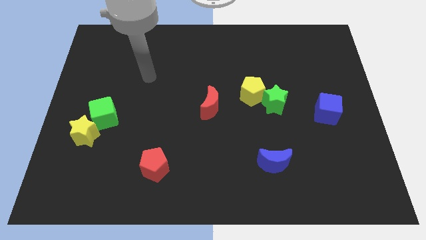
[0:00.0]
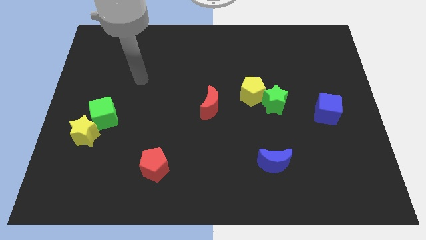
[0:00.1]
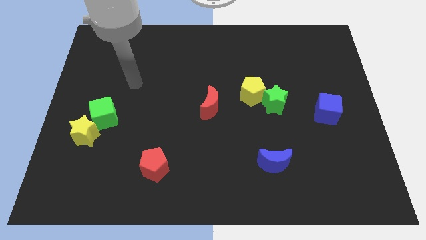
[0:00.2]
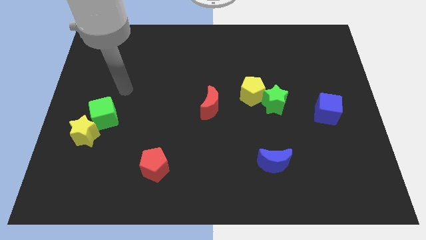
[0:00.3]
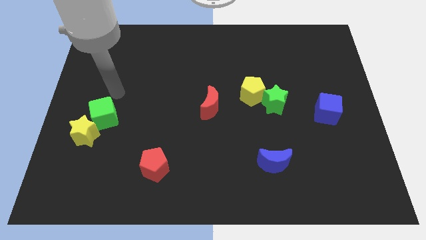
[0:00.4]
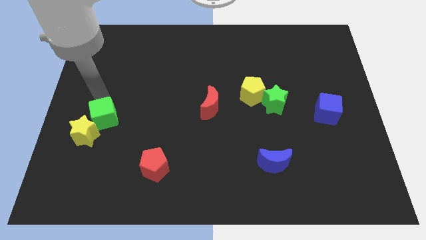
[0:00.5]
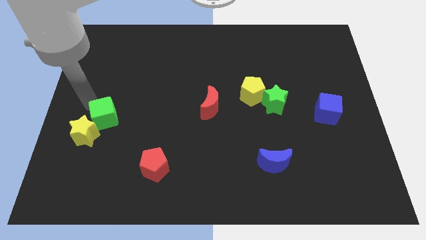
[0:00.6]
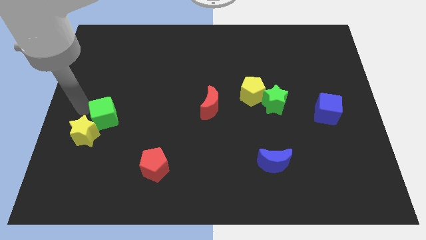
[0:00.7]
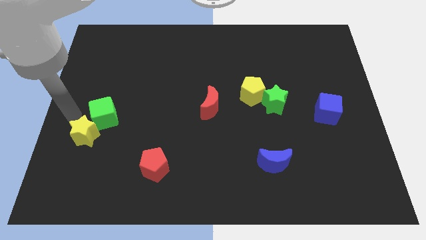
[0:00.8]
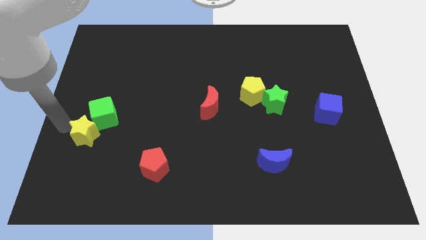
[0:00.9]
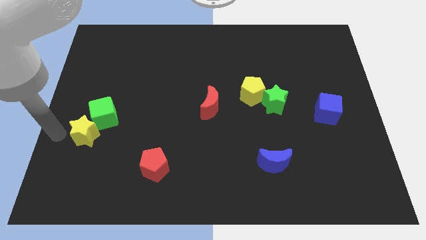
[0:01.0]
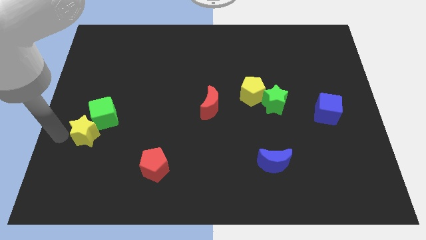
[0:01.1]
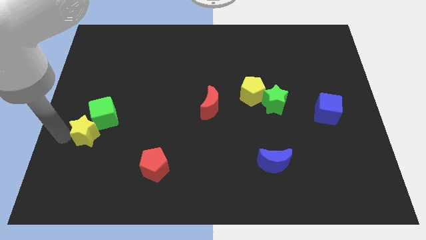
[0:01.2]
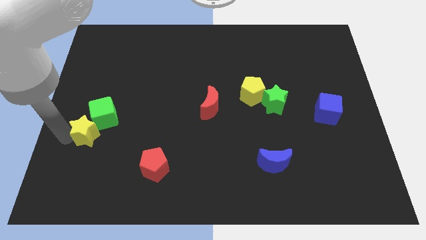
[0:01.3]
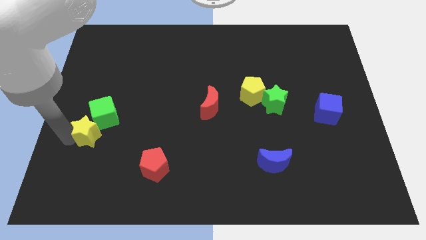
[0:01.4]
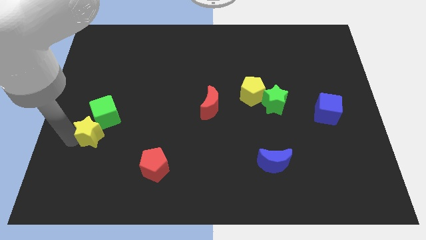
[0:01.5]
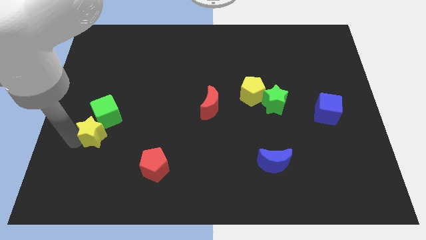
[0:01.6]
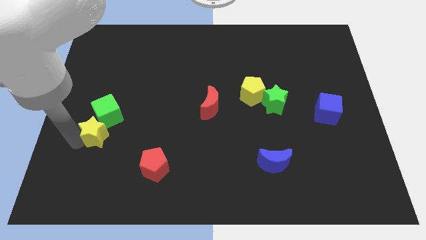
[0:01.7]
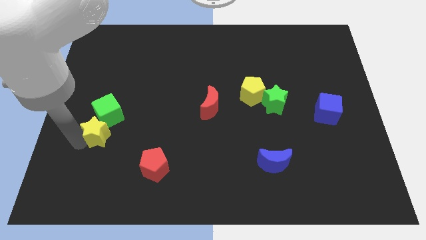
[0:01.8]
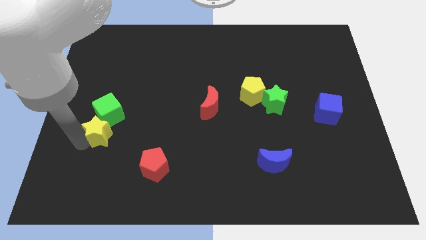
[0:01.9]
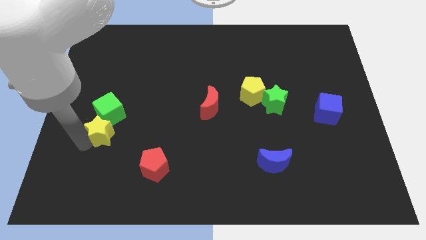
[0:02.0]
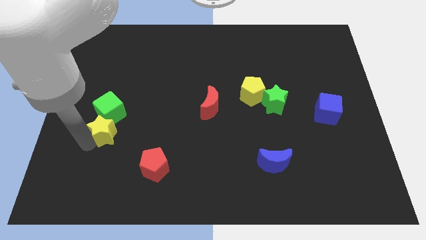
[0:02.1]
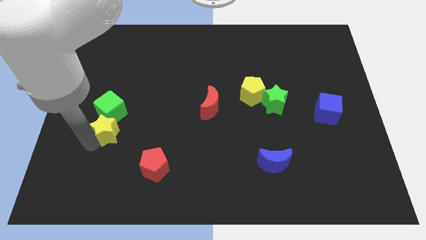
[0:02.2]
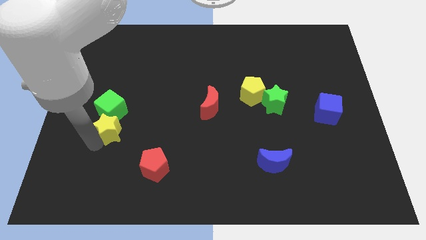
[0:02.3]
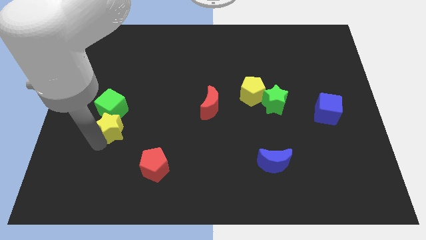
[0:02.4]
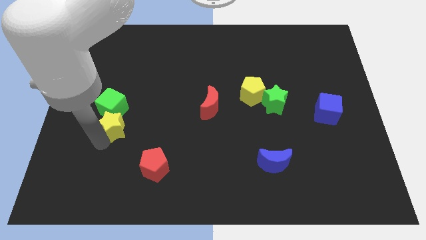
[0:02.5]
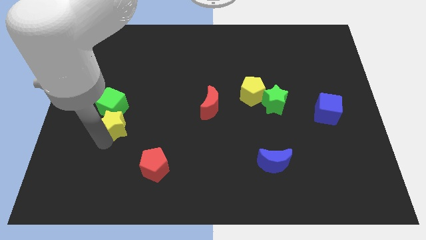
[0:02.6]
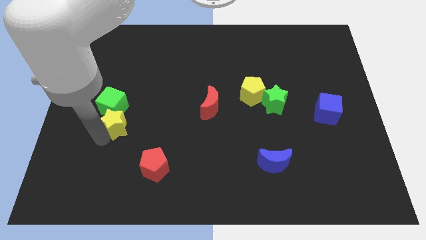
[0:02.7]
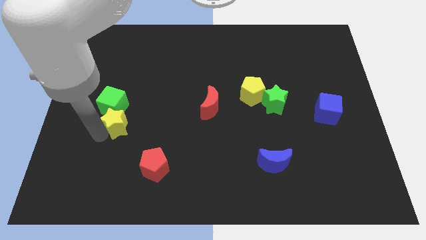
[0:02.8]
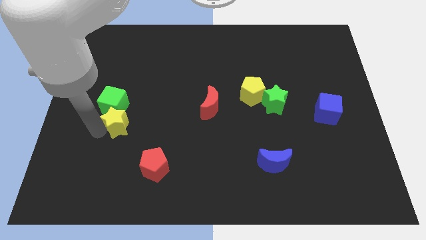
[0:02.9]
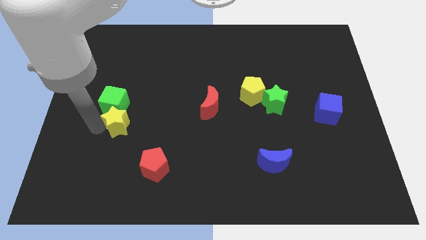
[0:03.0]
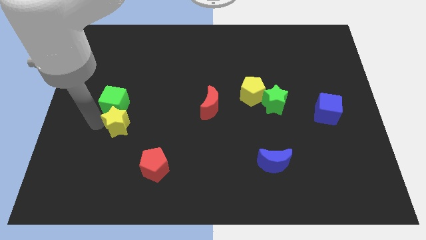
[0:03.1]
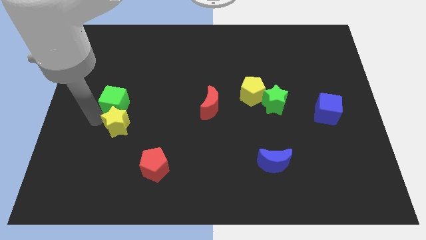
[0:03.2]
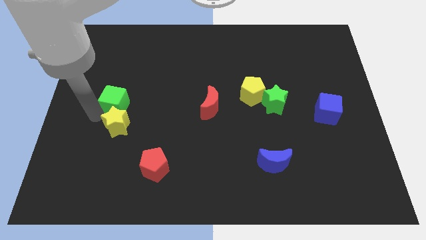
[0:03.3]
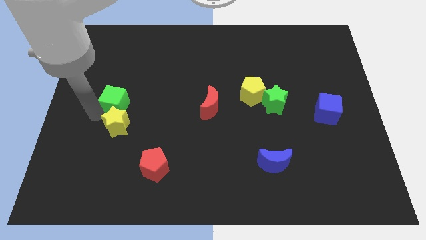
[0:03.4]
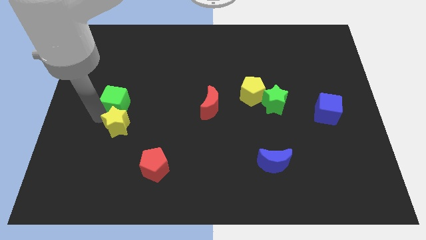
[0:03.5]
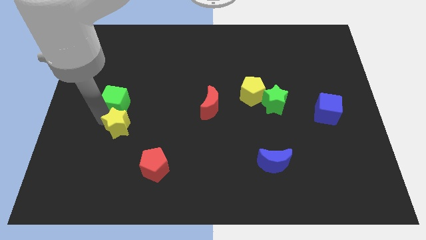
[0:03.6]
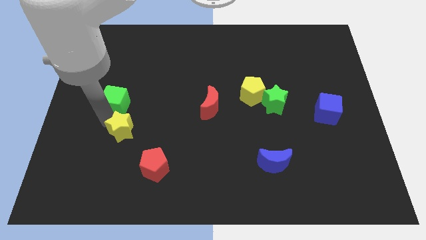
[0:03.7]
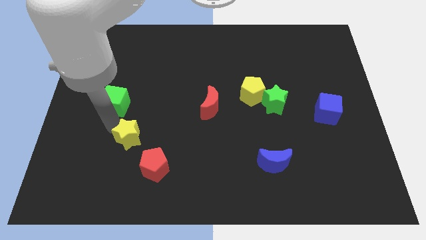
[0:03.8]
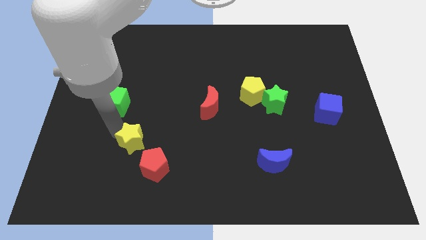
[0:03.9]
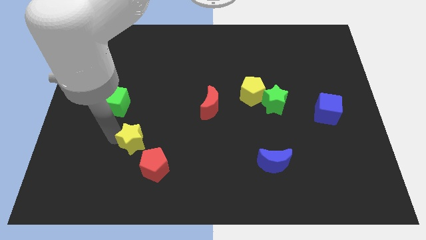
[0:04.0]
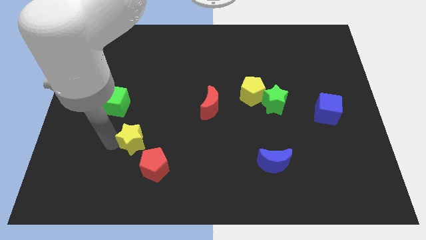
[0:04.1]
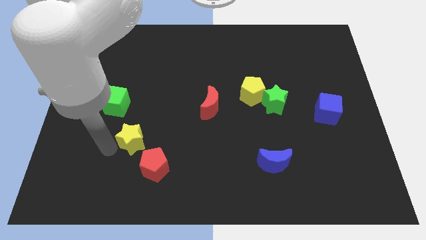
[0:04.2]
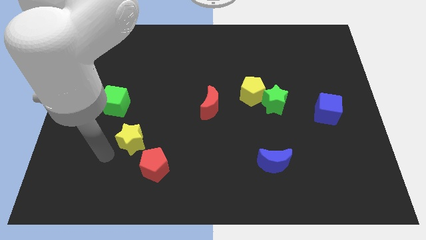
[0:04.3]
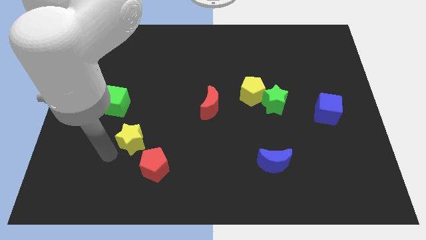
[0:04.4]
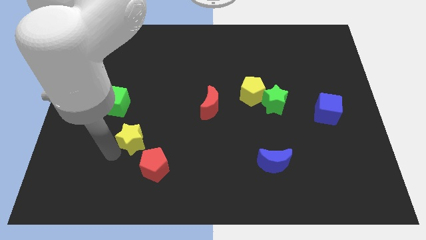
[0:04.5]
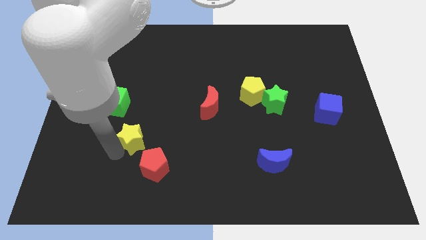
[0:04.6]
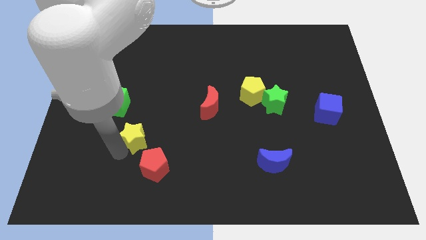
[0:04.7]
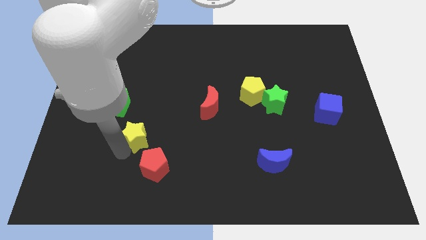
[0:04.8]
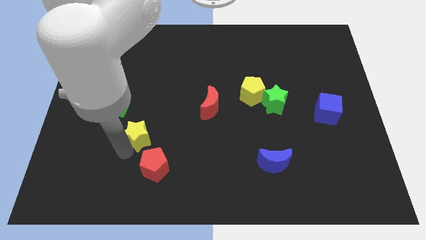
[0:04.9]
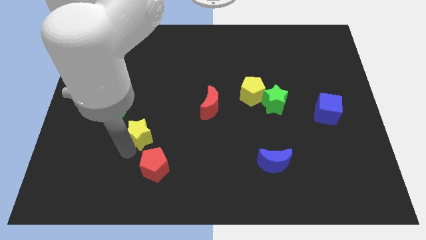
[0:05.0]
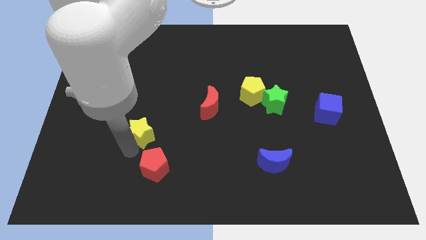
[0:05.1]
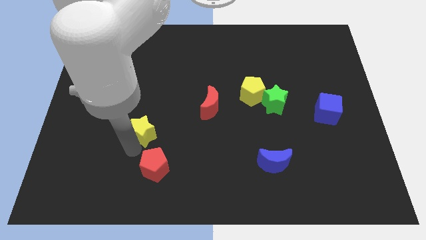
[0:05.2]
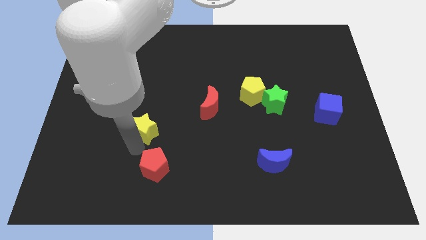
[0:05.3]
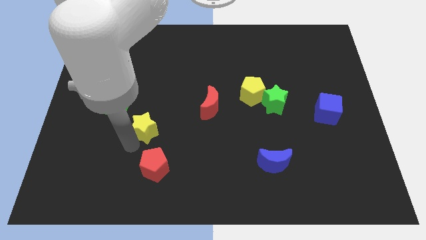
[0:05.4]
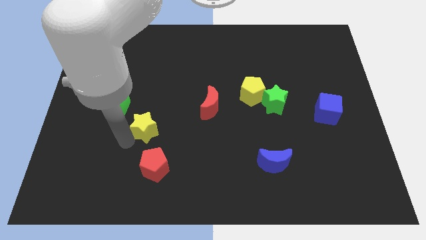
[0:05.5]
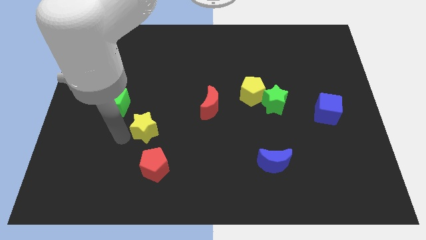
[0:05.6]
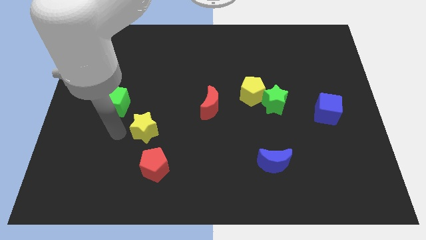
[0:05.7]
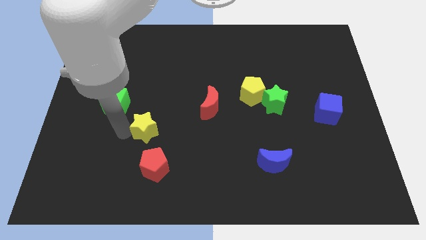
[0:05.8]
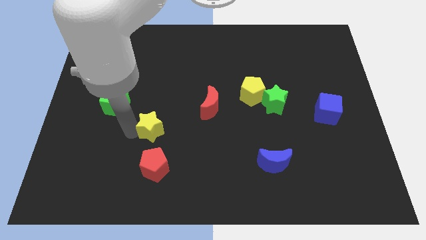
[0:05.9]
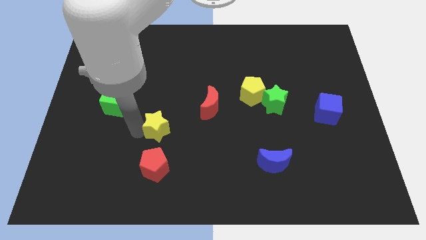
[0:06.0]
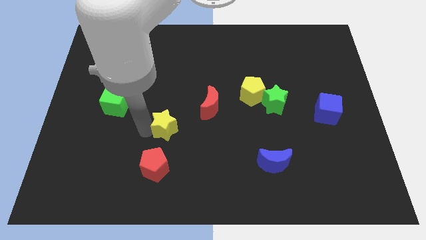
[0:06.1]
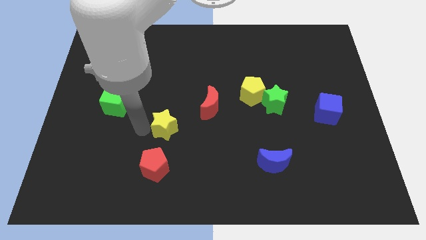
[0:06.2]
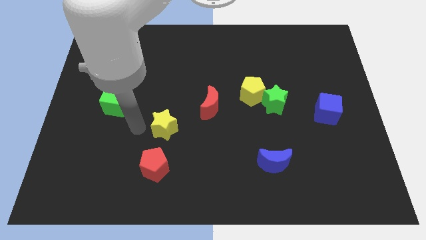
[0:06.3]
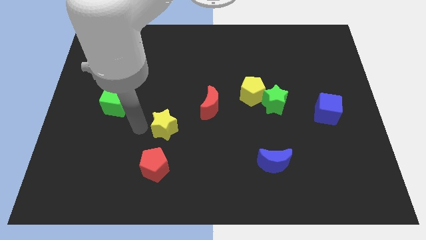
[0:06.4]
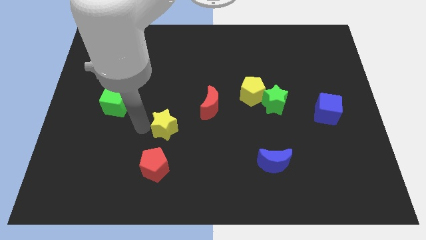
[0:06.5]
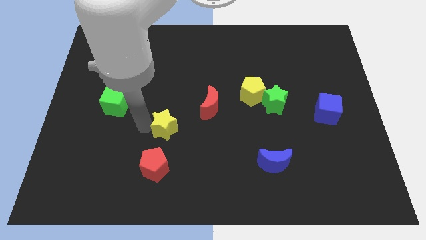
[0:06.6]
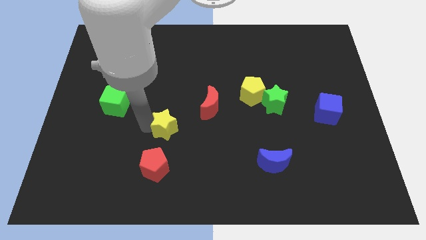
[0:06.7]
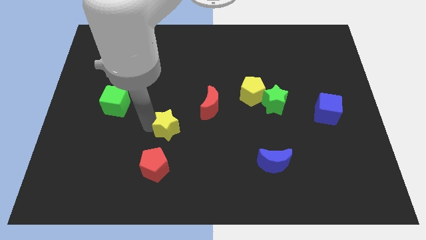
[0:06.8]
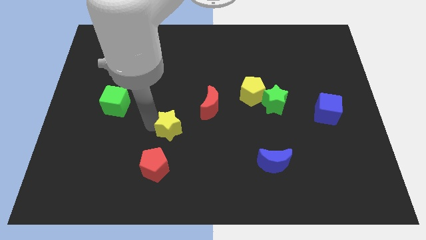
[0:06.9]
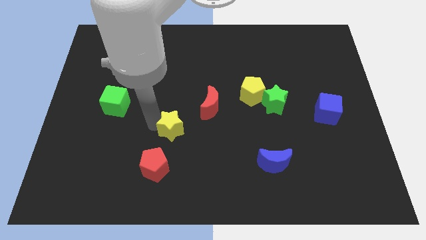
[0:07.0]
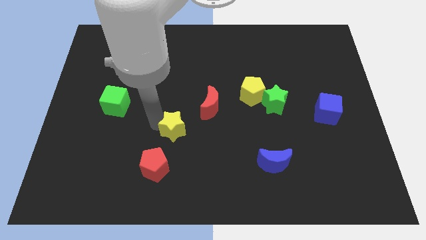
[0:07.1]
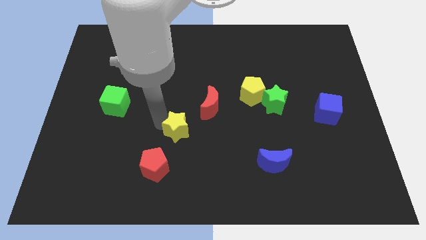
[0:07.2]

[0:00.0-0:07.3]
slide the yellow star to the right

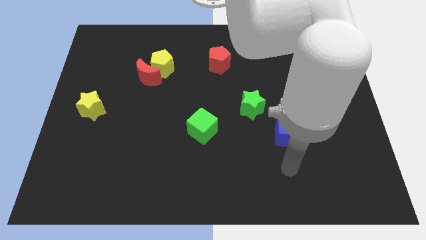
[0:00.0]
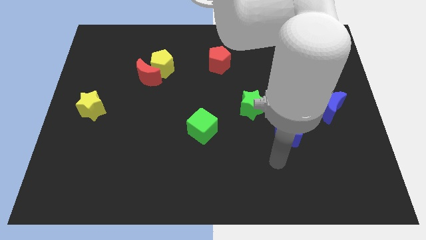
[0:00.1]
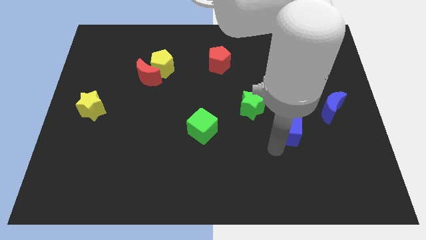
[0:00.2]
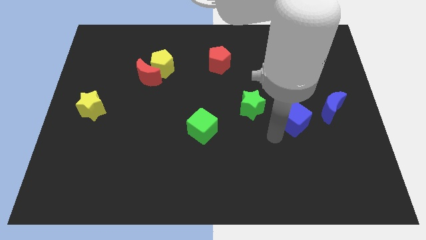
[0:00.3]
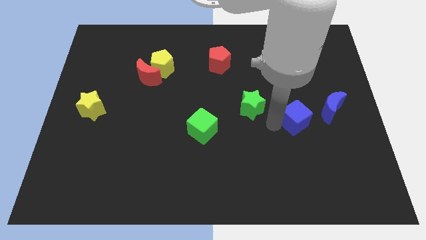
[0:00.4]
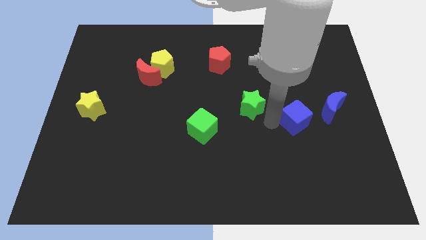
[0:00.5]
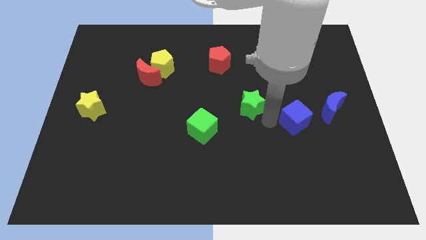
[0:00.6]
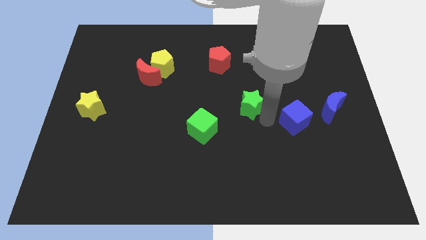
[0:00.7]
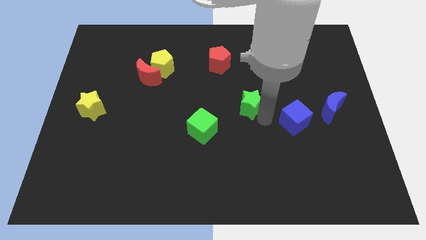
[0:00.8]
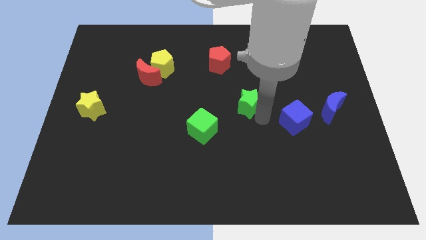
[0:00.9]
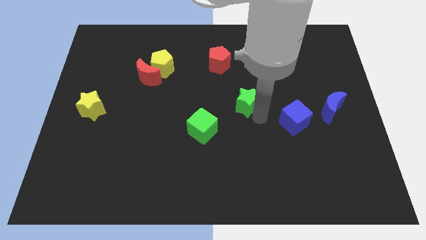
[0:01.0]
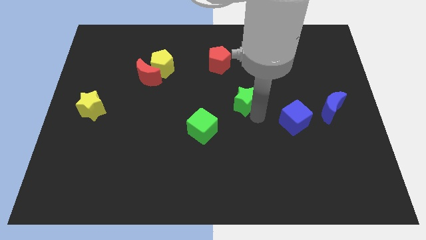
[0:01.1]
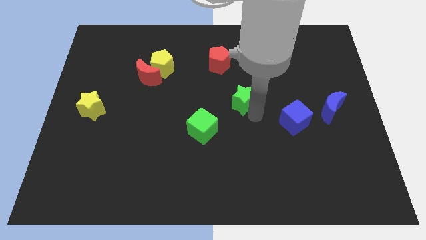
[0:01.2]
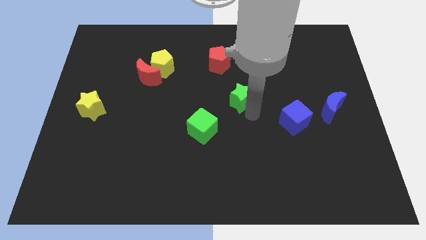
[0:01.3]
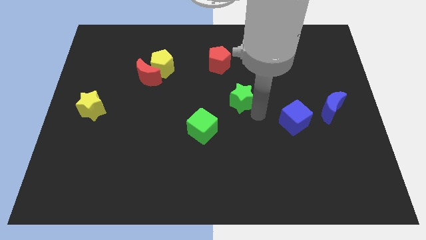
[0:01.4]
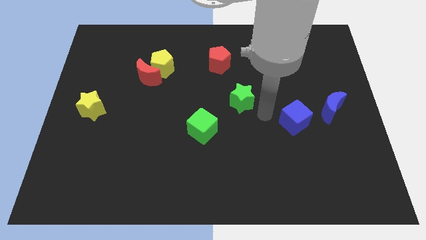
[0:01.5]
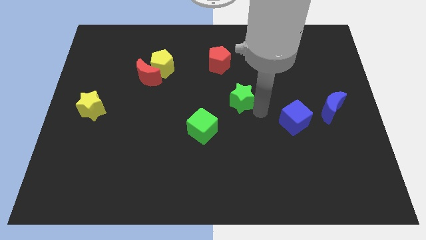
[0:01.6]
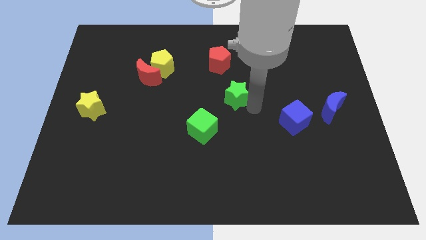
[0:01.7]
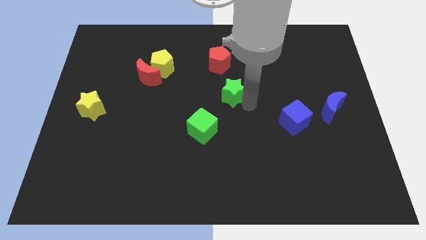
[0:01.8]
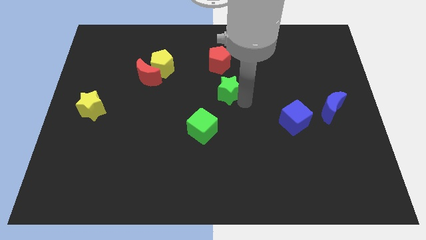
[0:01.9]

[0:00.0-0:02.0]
slightly push the green star upwards and to the left
